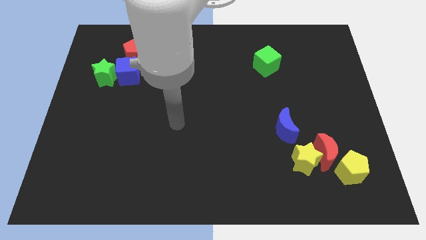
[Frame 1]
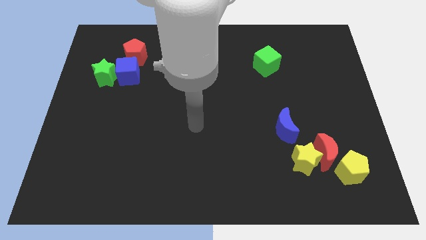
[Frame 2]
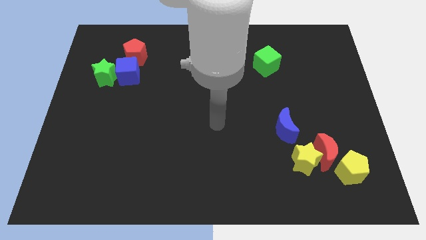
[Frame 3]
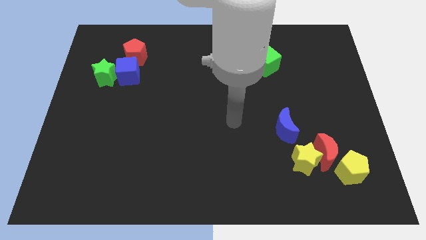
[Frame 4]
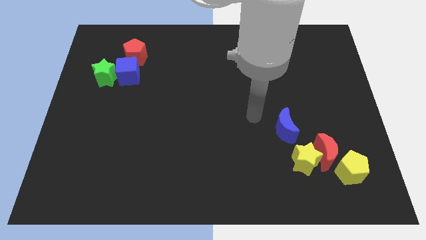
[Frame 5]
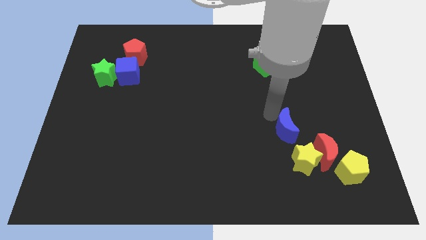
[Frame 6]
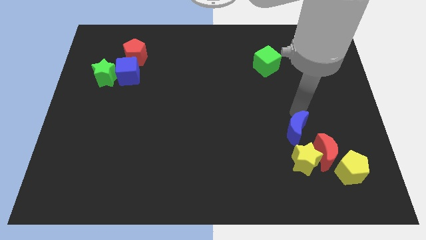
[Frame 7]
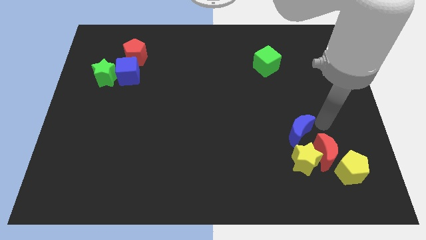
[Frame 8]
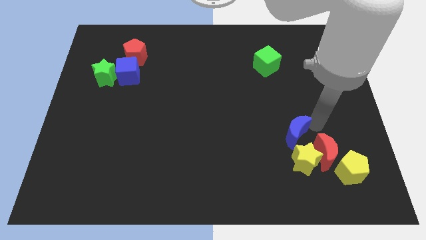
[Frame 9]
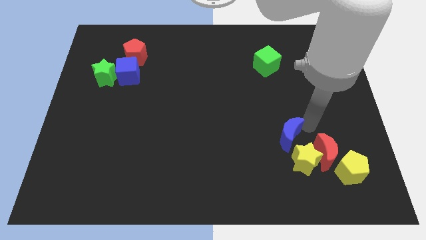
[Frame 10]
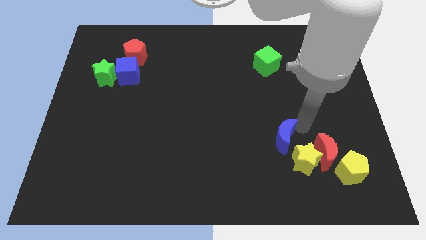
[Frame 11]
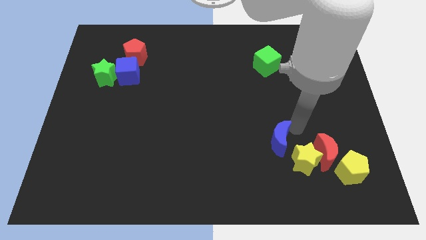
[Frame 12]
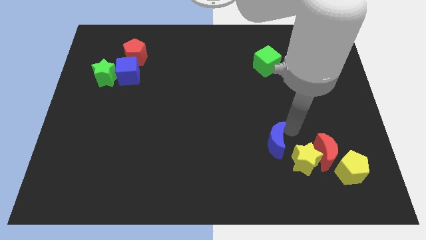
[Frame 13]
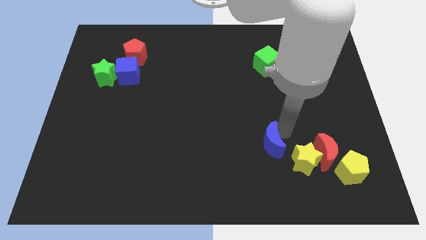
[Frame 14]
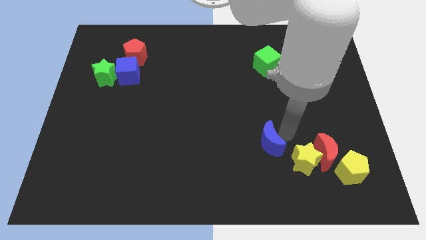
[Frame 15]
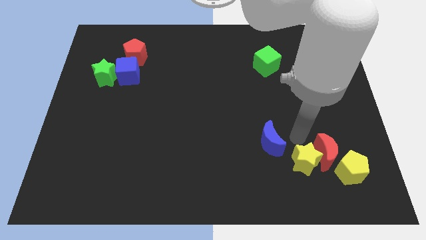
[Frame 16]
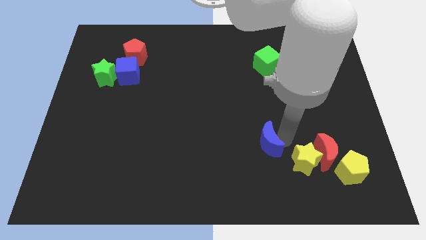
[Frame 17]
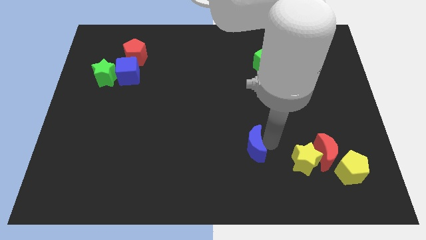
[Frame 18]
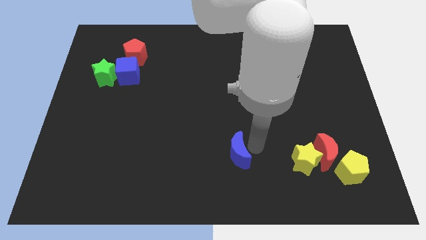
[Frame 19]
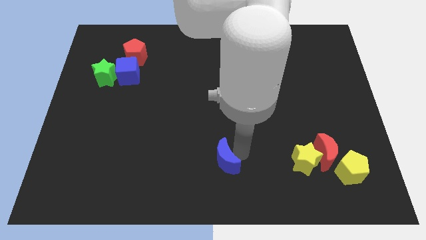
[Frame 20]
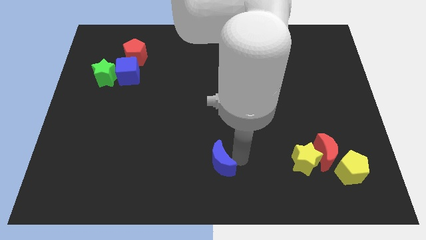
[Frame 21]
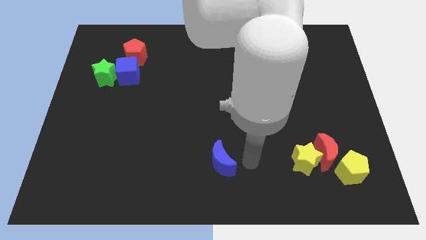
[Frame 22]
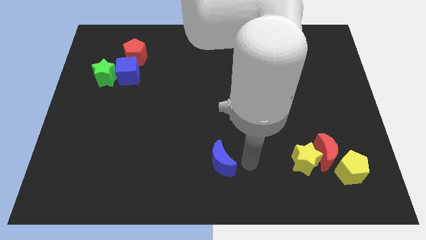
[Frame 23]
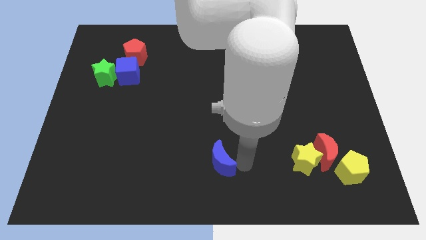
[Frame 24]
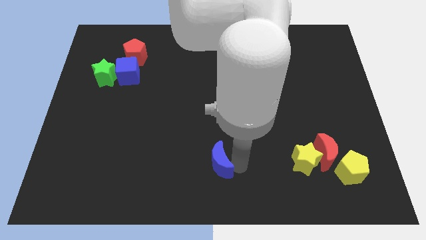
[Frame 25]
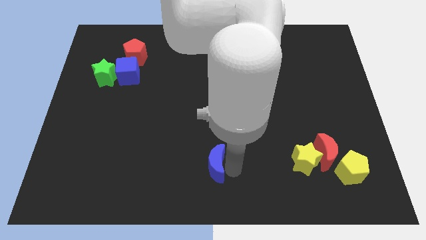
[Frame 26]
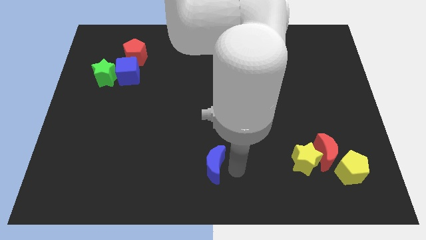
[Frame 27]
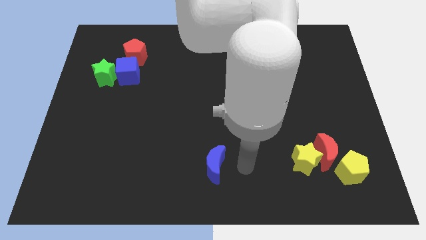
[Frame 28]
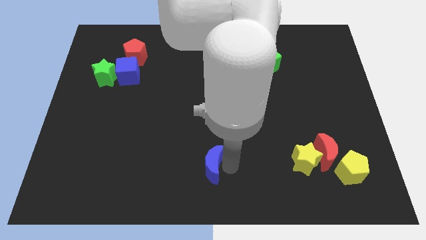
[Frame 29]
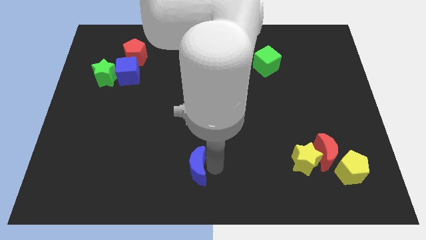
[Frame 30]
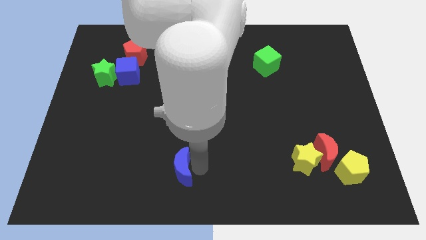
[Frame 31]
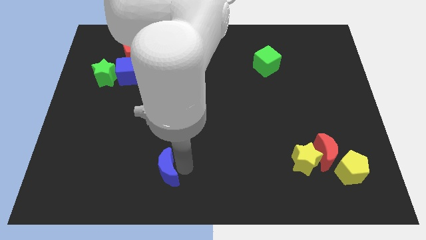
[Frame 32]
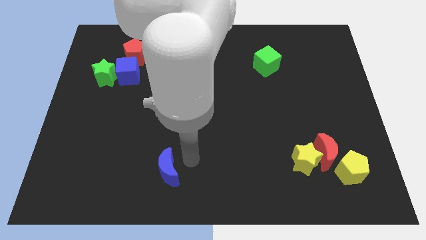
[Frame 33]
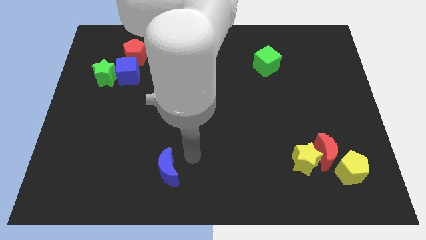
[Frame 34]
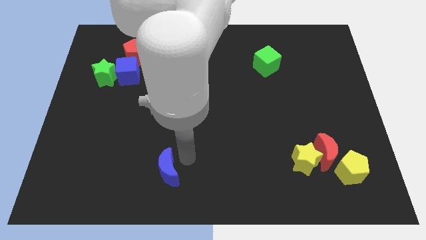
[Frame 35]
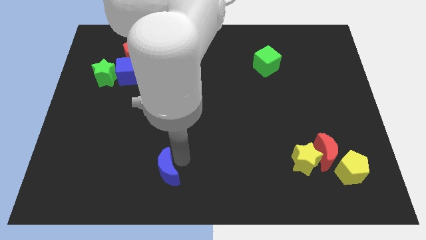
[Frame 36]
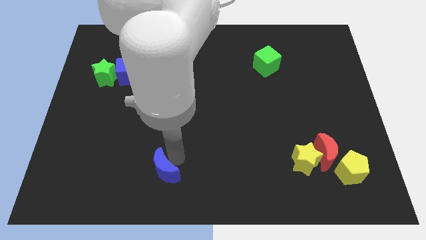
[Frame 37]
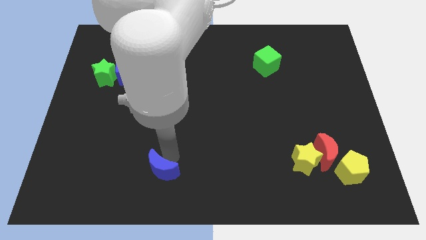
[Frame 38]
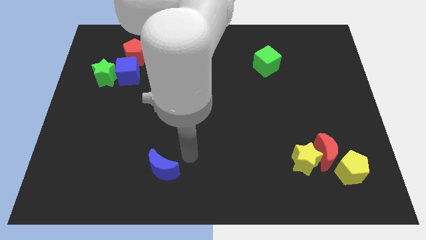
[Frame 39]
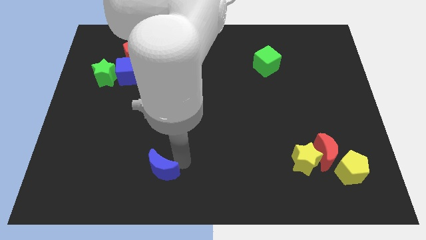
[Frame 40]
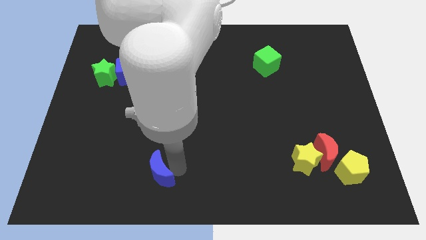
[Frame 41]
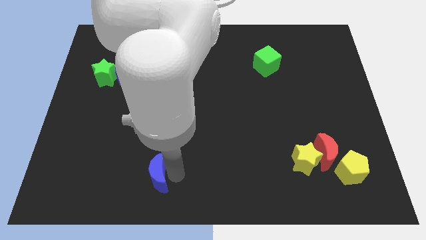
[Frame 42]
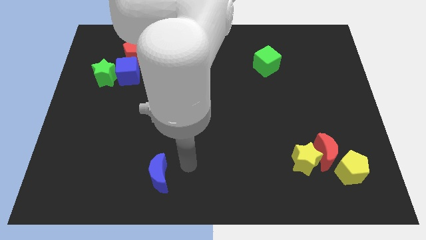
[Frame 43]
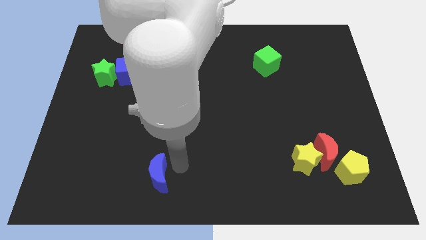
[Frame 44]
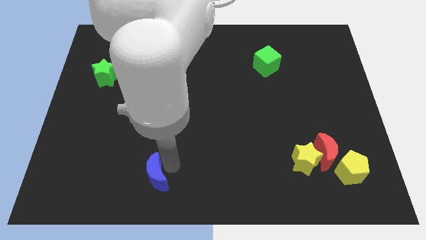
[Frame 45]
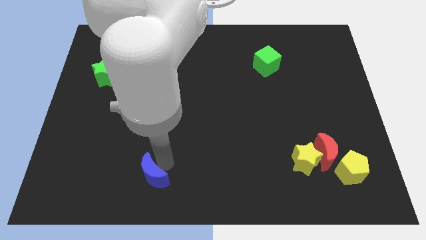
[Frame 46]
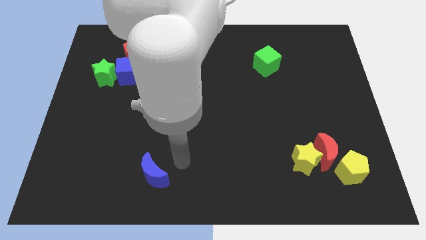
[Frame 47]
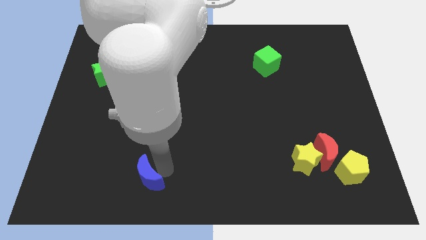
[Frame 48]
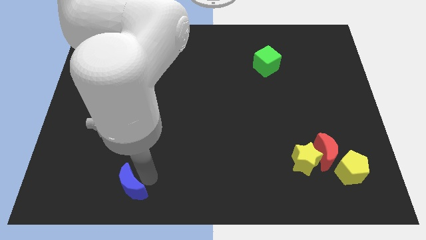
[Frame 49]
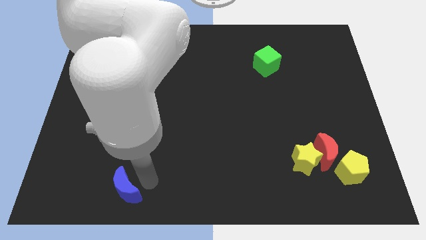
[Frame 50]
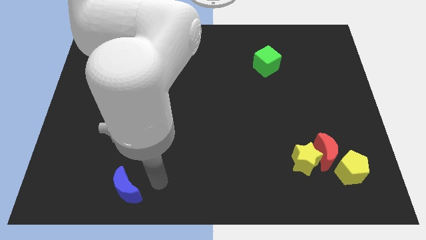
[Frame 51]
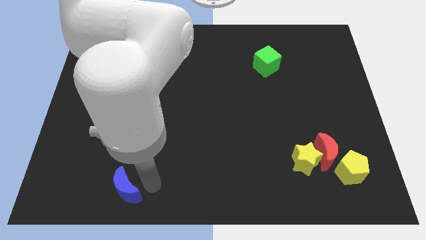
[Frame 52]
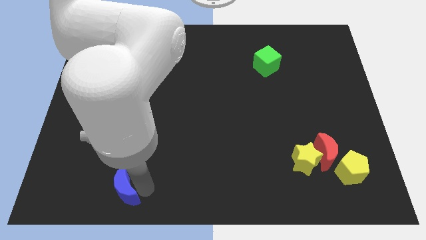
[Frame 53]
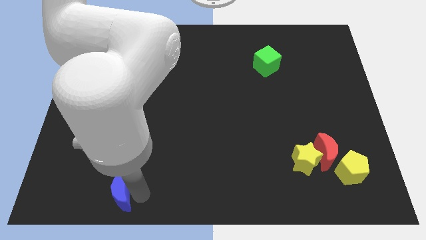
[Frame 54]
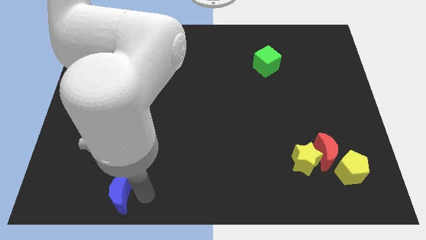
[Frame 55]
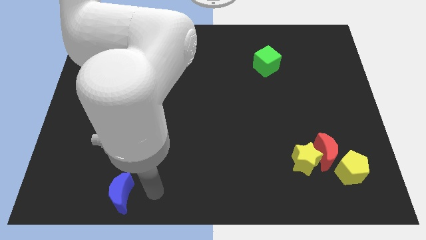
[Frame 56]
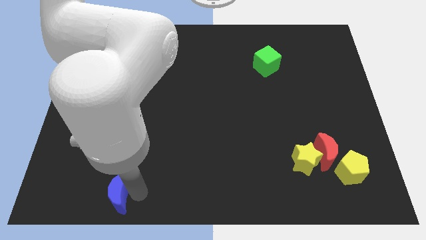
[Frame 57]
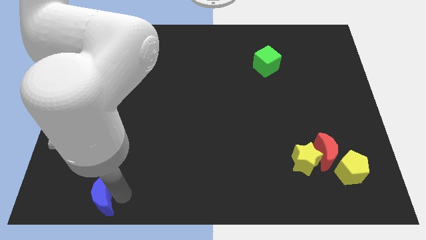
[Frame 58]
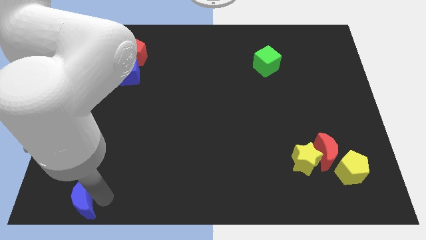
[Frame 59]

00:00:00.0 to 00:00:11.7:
move the blue moon to the bottom left corner
